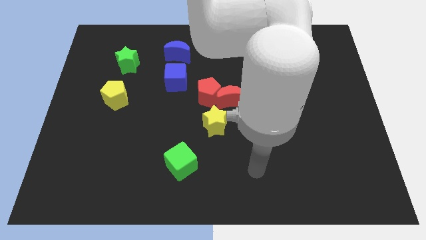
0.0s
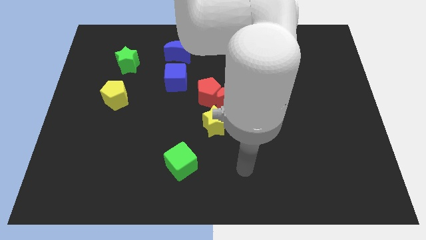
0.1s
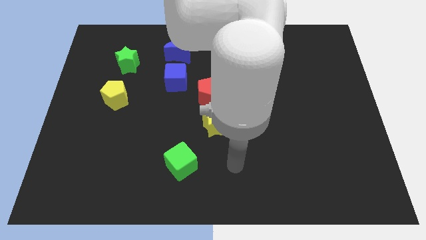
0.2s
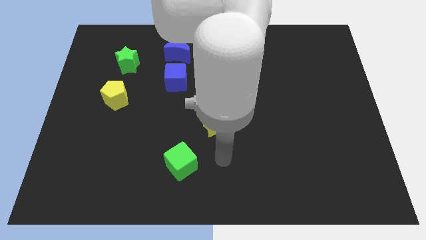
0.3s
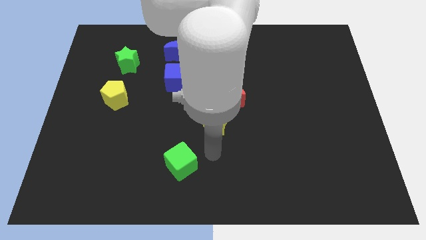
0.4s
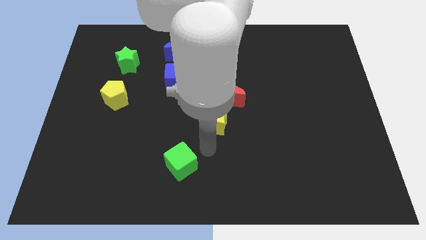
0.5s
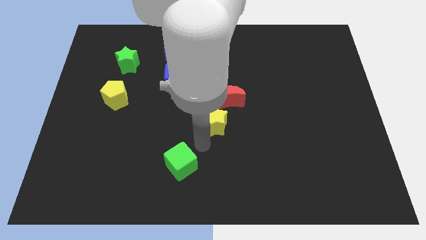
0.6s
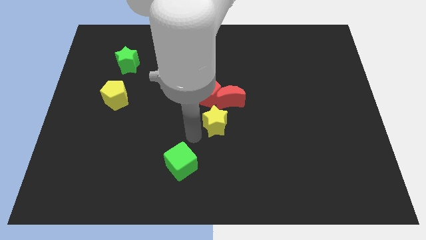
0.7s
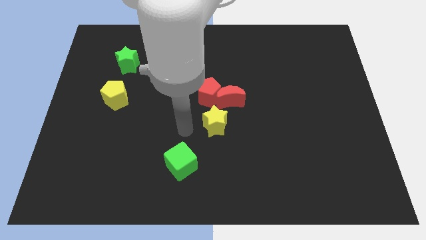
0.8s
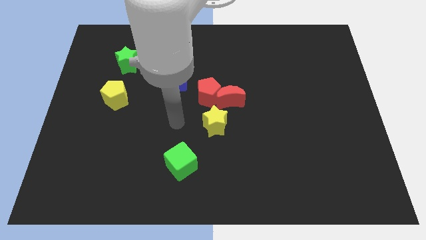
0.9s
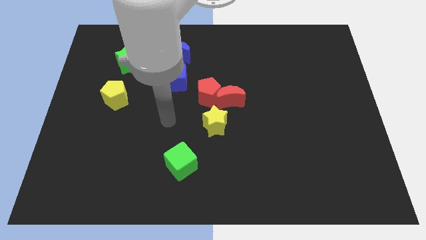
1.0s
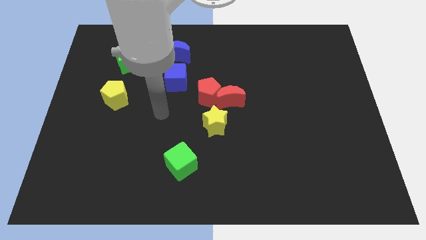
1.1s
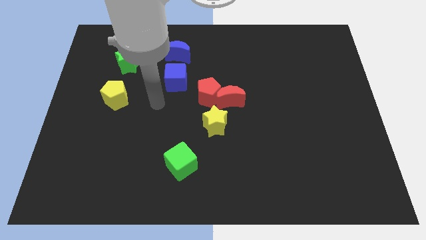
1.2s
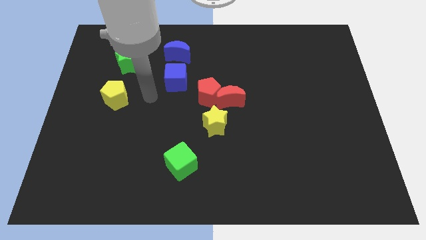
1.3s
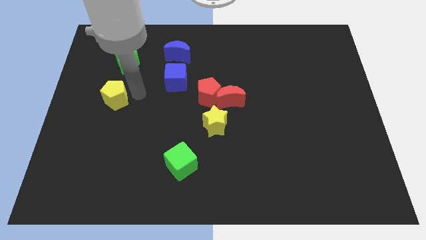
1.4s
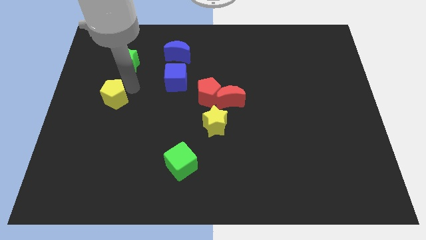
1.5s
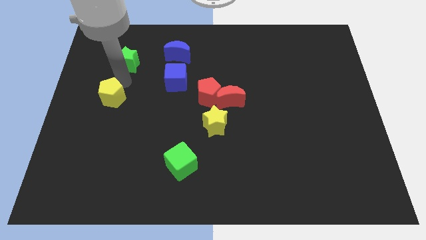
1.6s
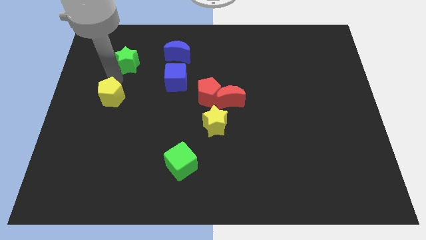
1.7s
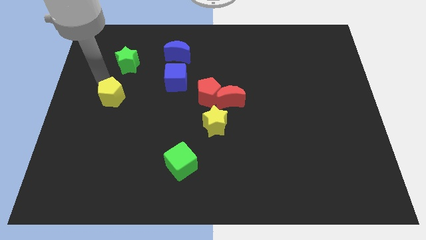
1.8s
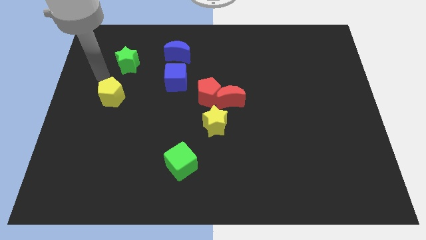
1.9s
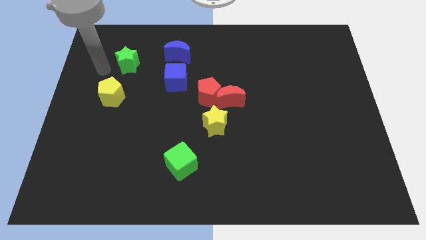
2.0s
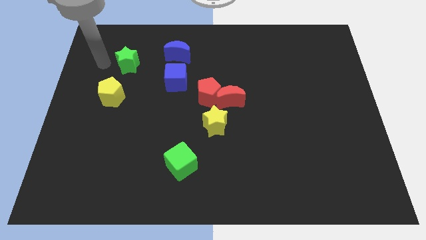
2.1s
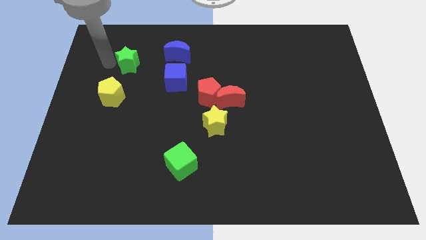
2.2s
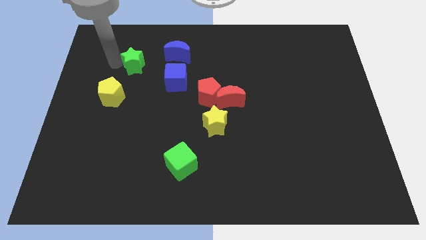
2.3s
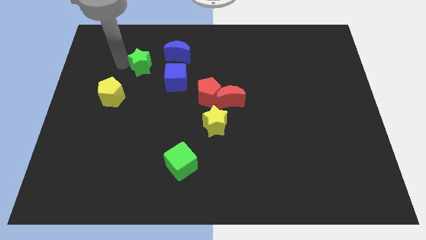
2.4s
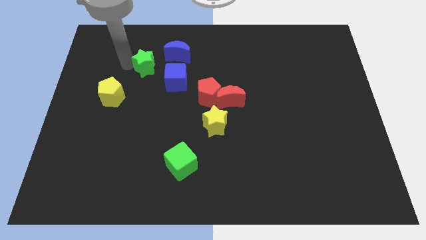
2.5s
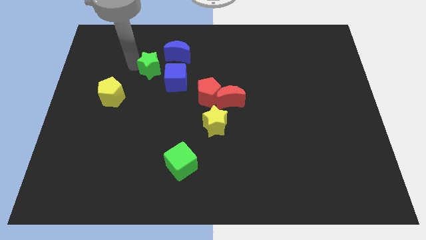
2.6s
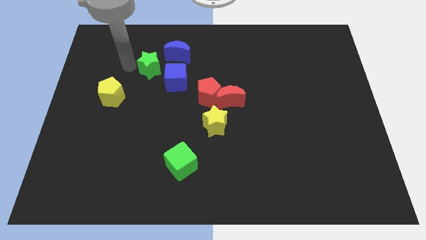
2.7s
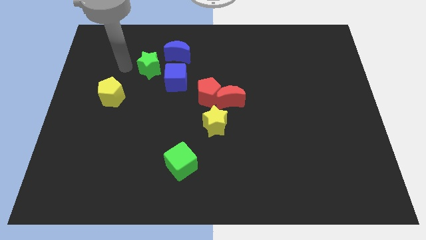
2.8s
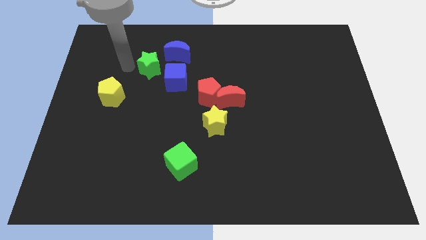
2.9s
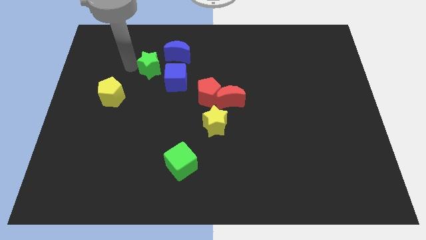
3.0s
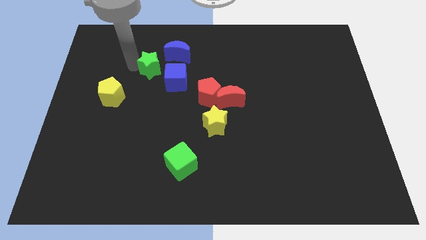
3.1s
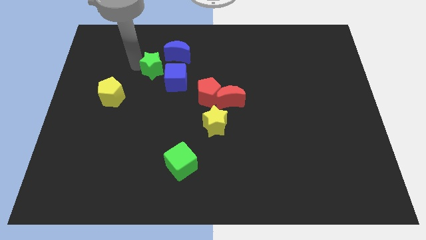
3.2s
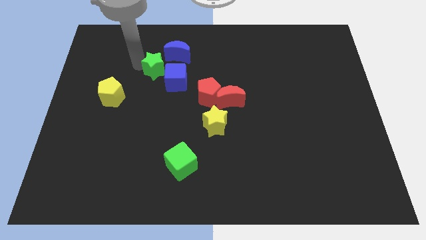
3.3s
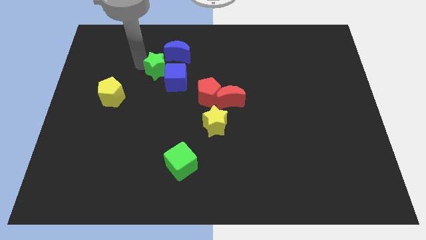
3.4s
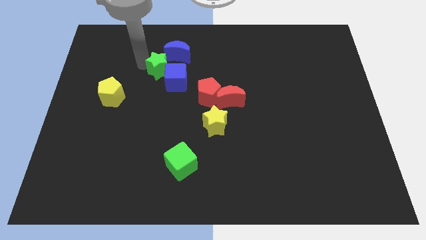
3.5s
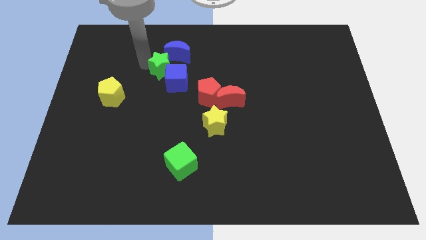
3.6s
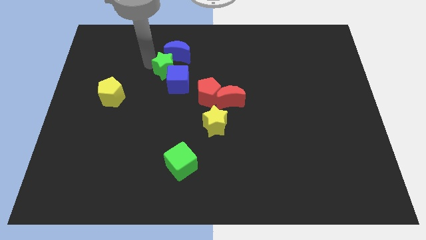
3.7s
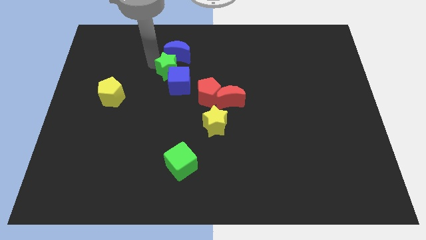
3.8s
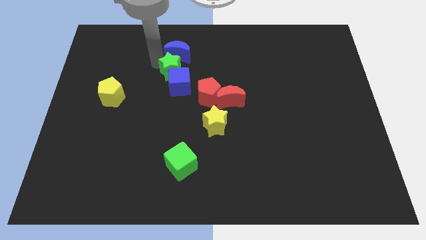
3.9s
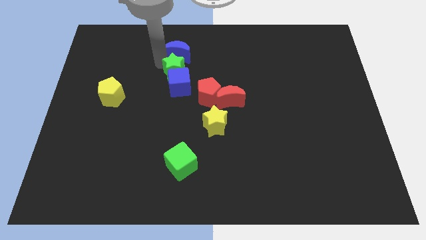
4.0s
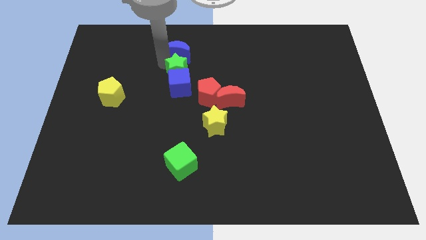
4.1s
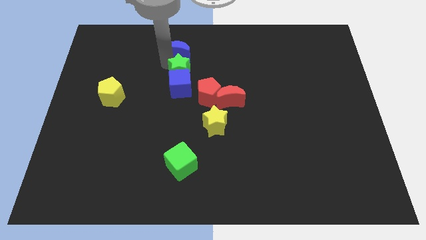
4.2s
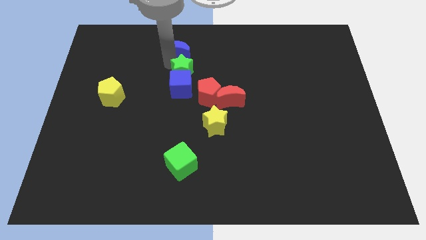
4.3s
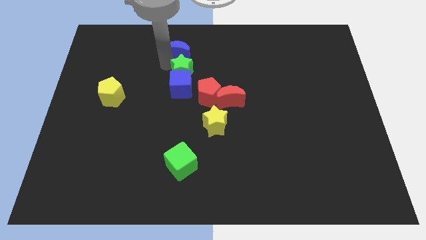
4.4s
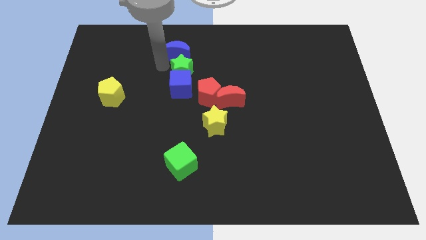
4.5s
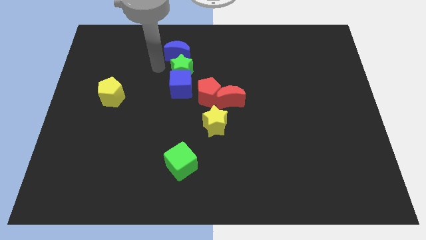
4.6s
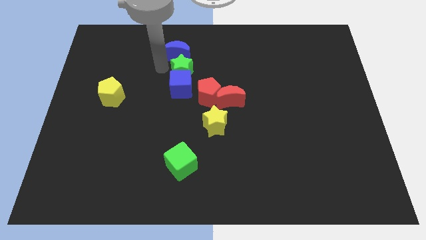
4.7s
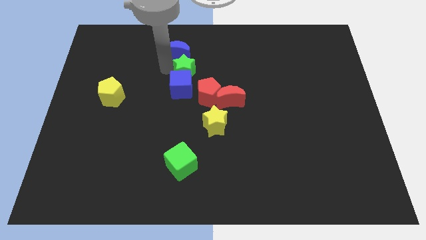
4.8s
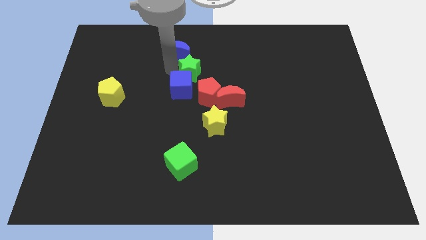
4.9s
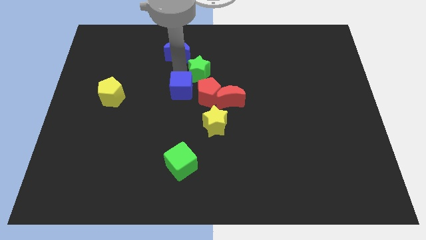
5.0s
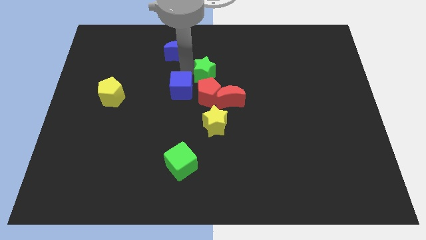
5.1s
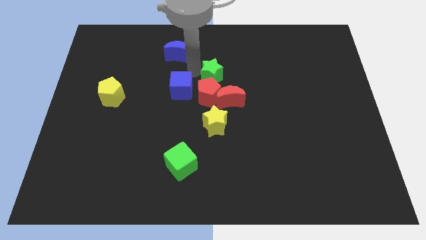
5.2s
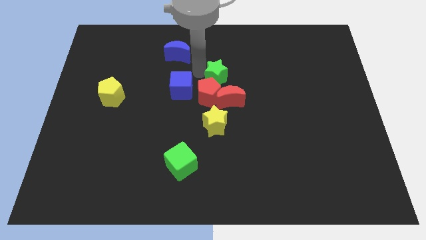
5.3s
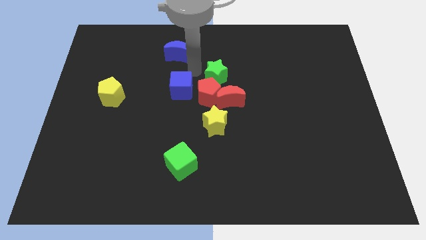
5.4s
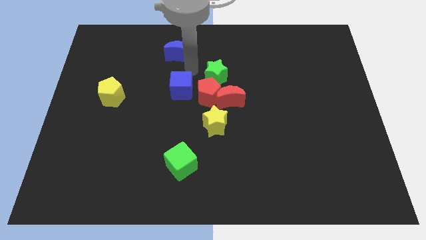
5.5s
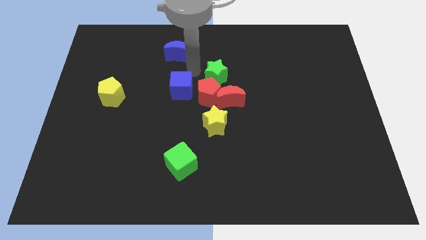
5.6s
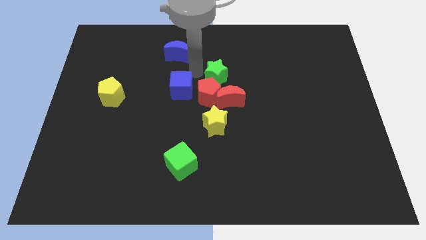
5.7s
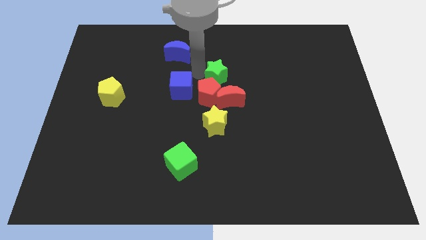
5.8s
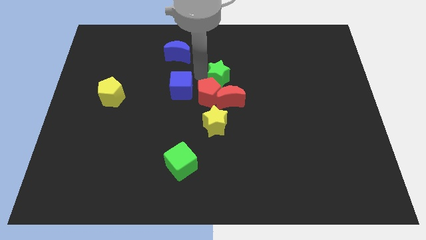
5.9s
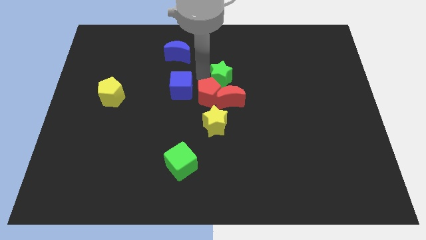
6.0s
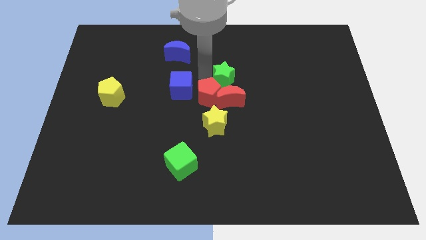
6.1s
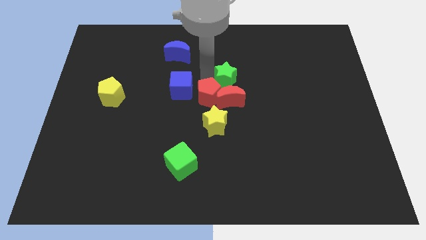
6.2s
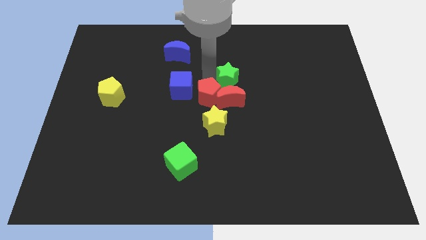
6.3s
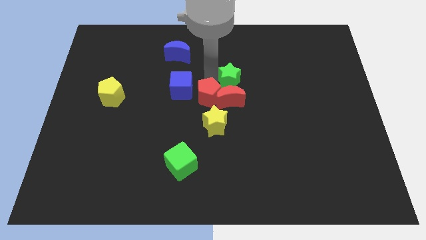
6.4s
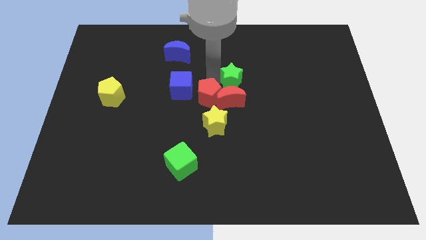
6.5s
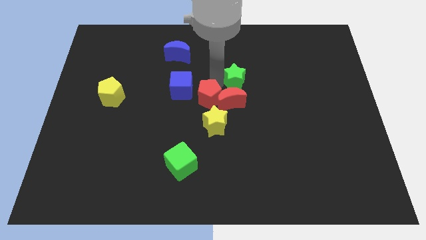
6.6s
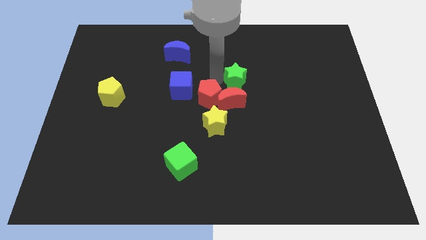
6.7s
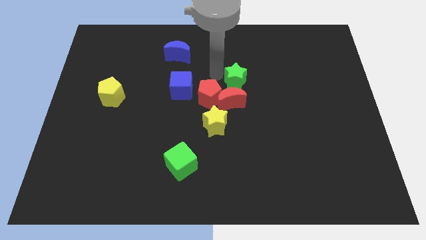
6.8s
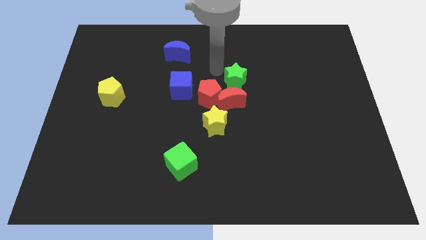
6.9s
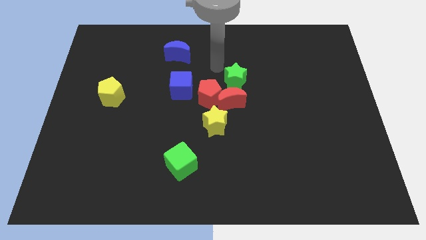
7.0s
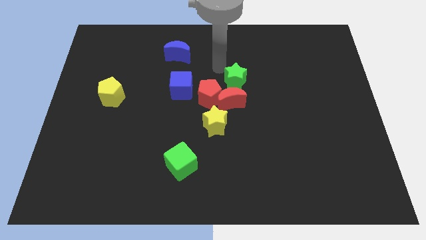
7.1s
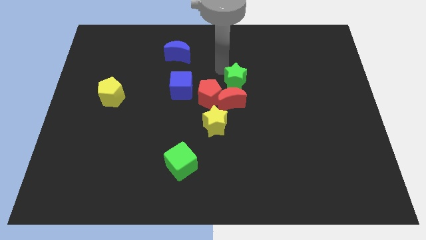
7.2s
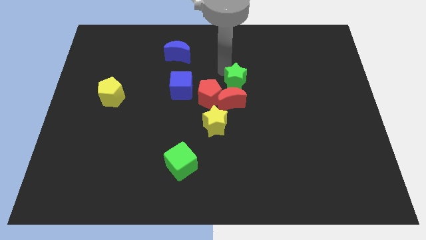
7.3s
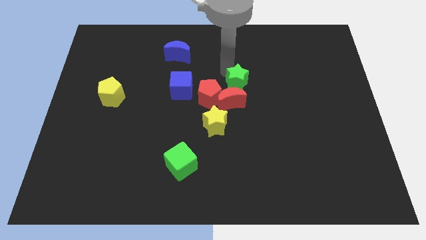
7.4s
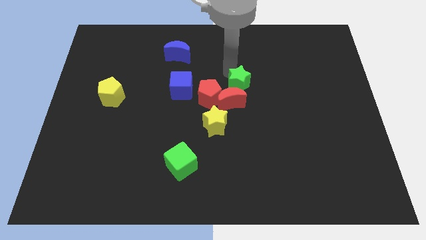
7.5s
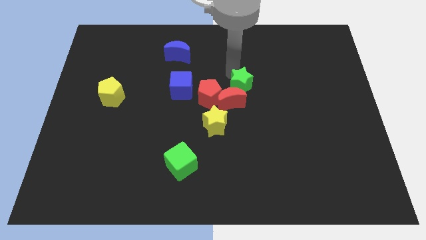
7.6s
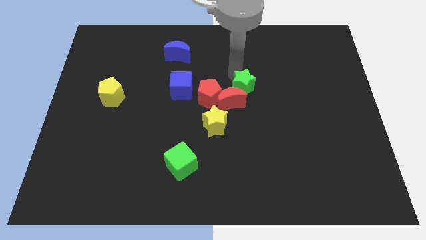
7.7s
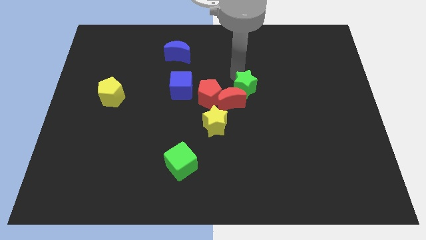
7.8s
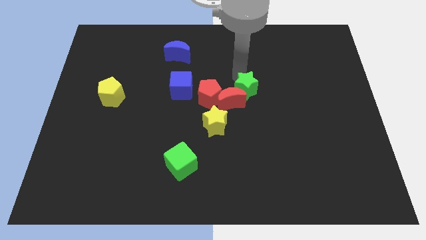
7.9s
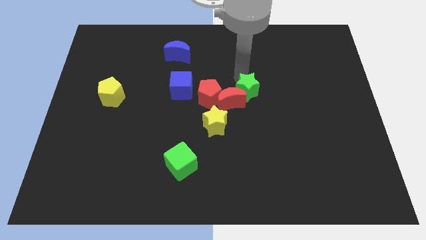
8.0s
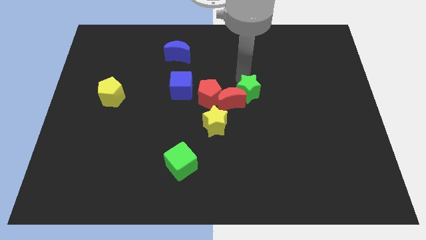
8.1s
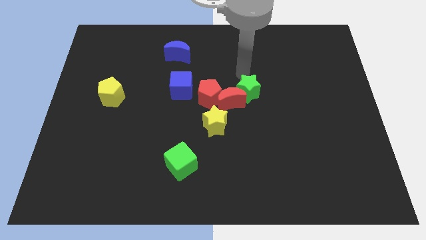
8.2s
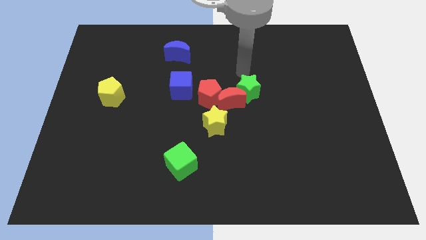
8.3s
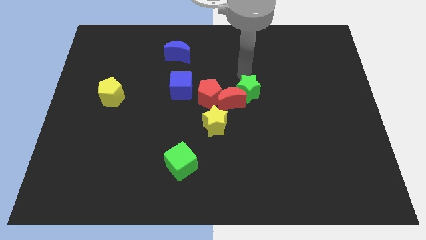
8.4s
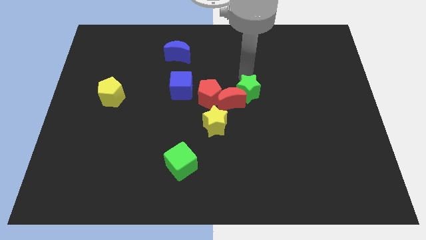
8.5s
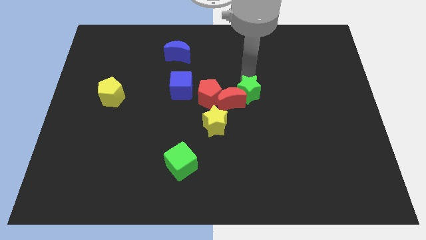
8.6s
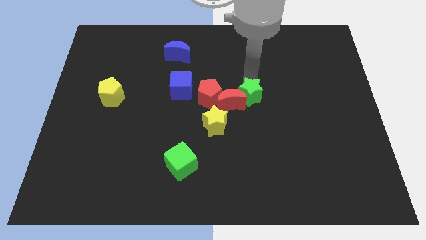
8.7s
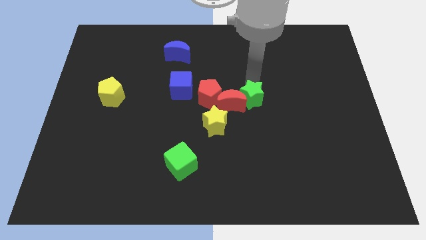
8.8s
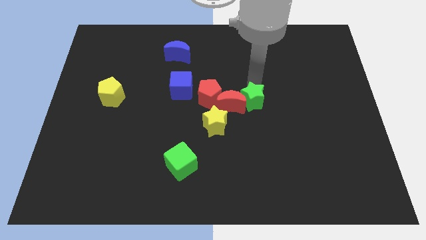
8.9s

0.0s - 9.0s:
move the green star to the bottom right side of the red moon
